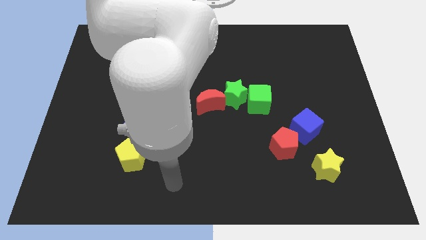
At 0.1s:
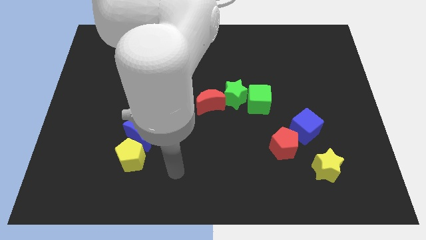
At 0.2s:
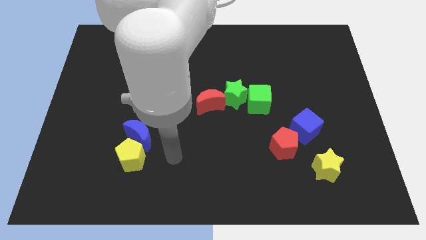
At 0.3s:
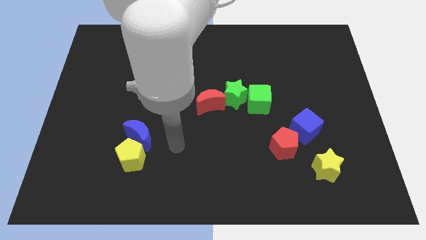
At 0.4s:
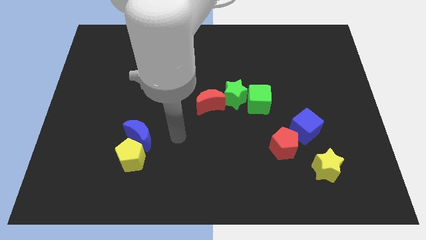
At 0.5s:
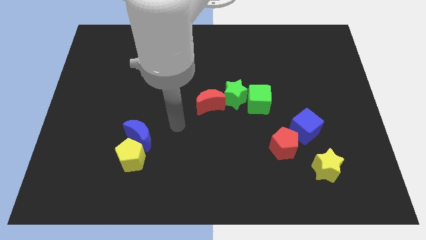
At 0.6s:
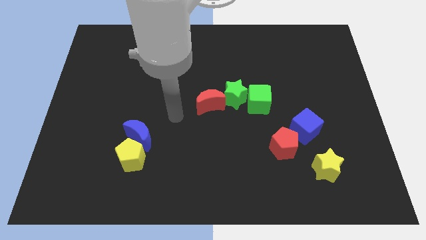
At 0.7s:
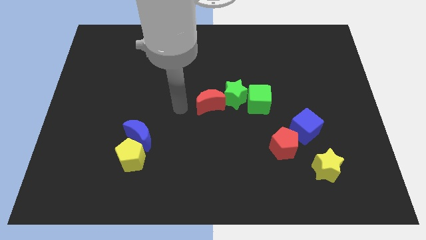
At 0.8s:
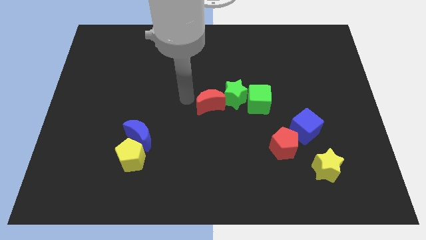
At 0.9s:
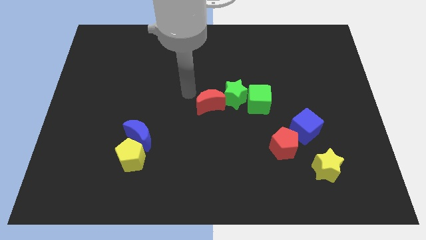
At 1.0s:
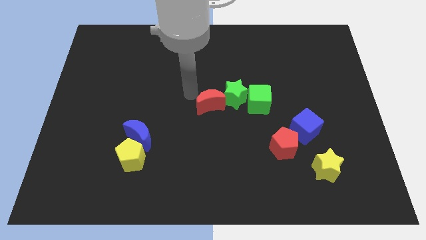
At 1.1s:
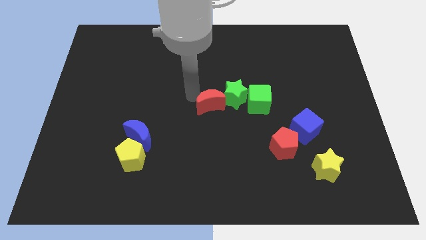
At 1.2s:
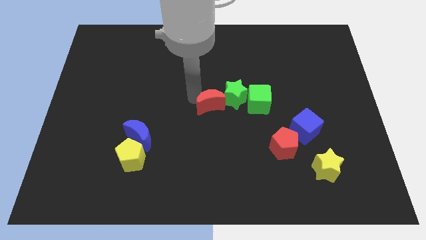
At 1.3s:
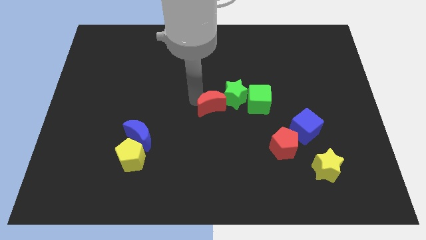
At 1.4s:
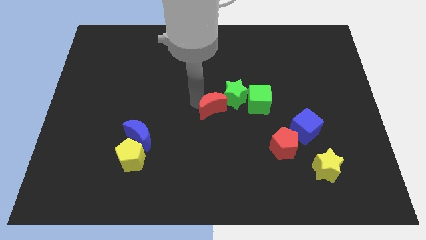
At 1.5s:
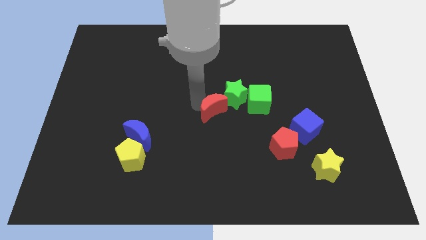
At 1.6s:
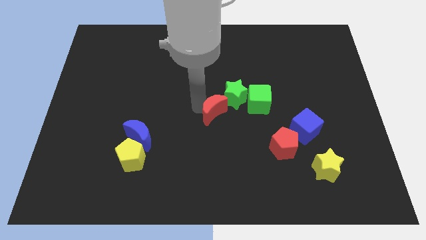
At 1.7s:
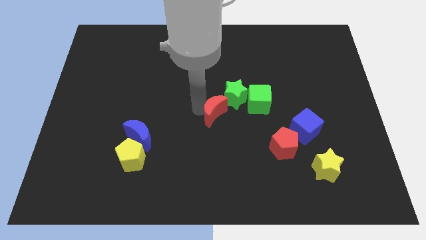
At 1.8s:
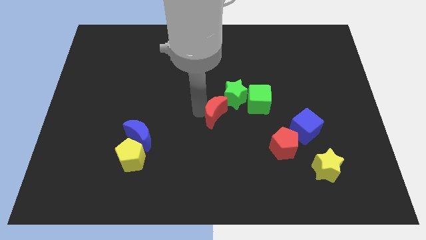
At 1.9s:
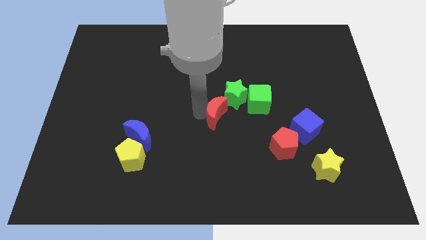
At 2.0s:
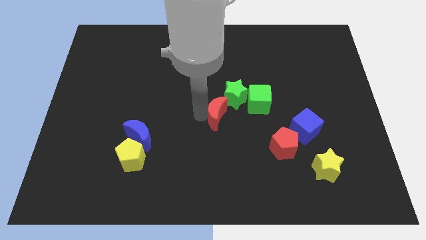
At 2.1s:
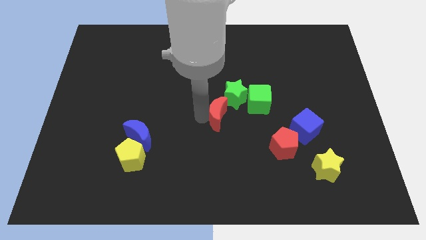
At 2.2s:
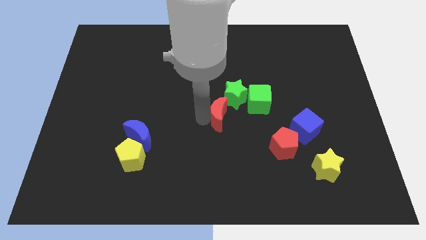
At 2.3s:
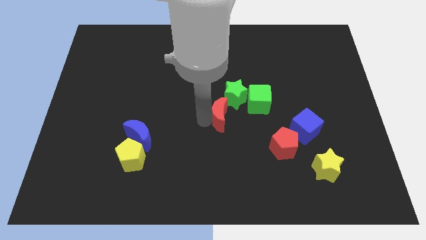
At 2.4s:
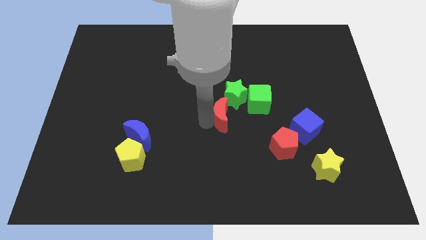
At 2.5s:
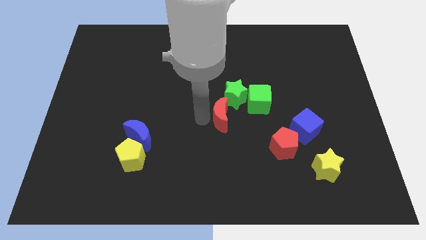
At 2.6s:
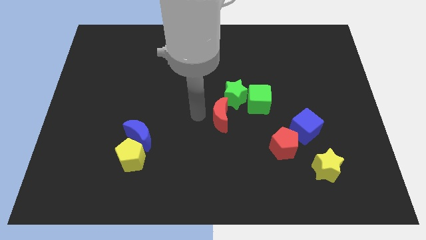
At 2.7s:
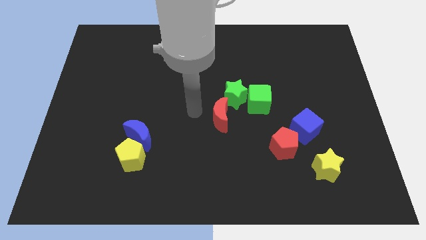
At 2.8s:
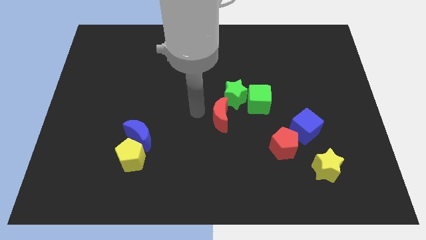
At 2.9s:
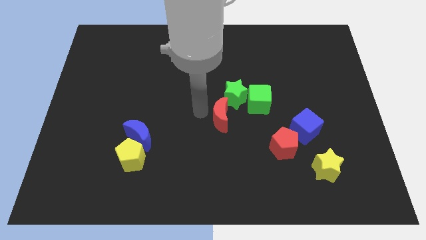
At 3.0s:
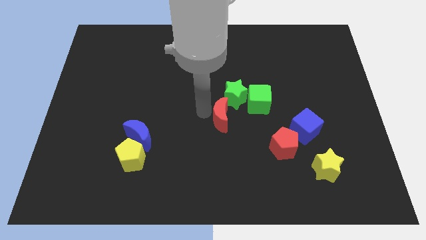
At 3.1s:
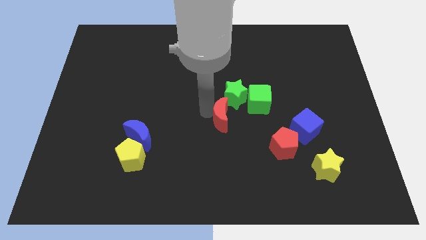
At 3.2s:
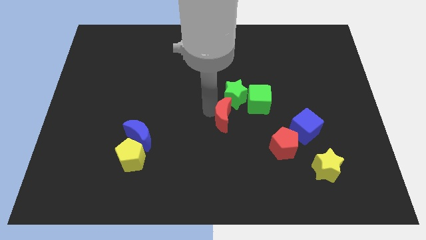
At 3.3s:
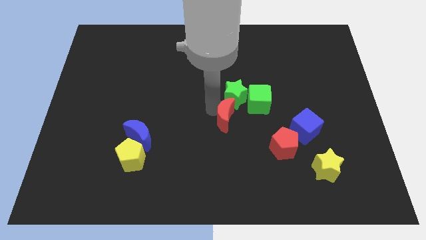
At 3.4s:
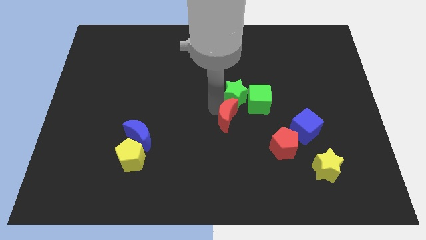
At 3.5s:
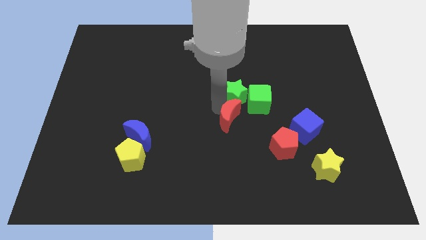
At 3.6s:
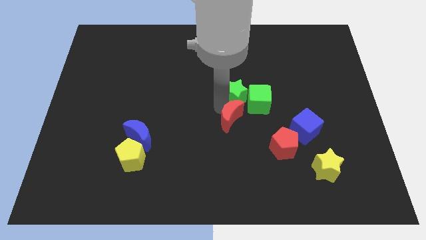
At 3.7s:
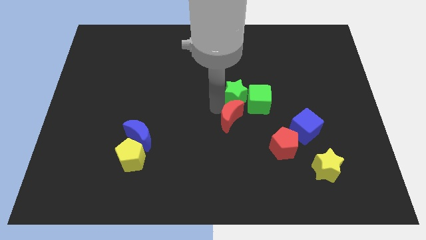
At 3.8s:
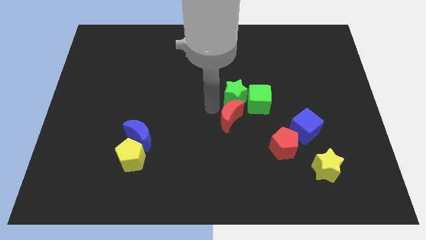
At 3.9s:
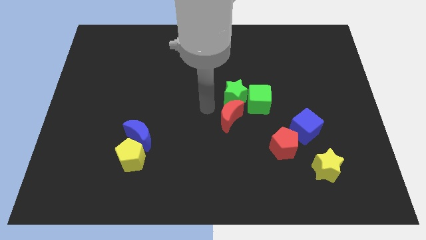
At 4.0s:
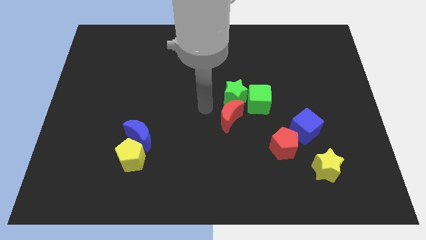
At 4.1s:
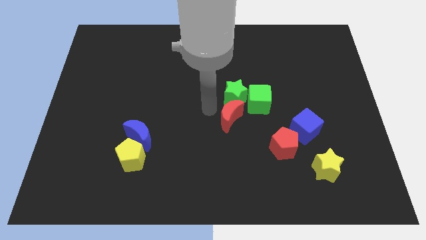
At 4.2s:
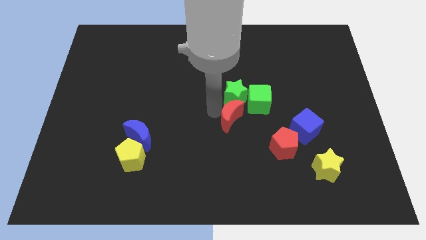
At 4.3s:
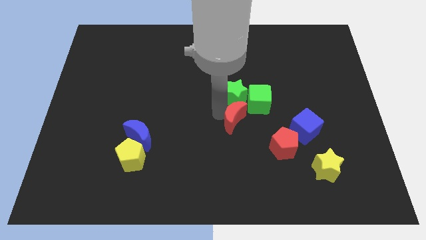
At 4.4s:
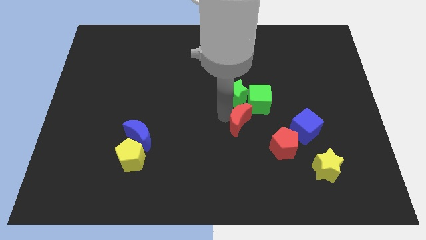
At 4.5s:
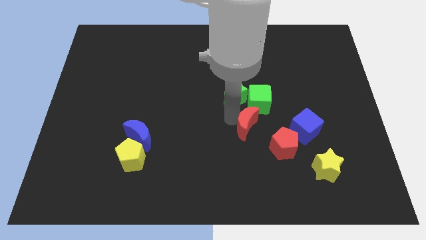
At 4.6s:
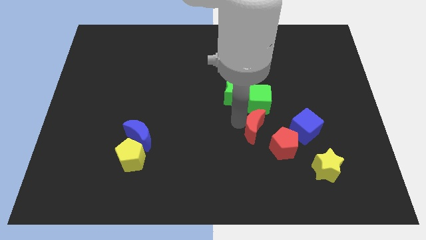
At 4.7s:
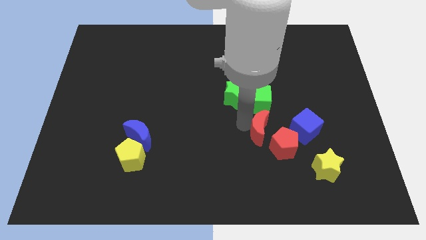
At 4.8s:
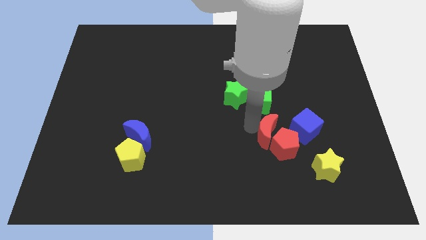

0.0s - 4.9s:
push the red moon next to the red pentagon

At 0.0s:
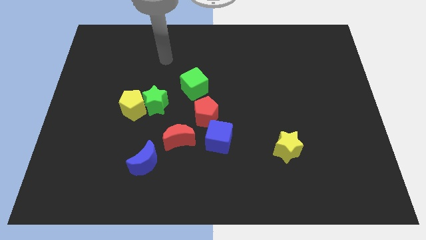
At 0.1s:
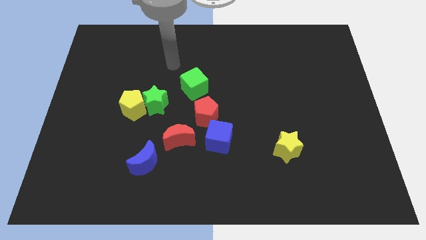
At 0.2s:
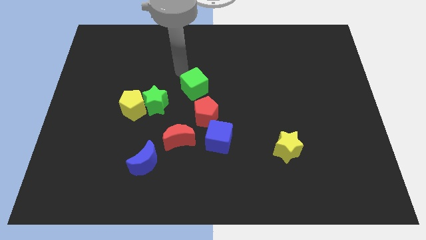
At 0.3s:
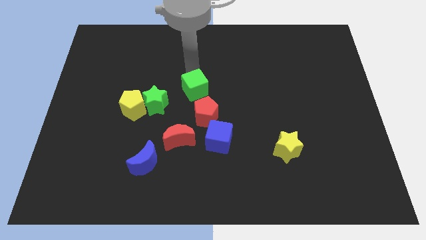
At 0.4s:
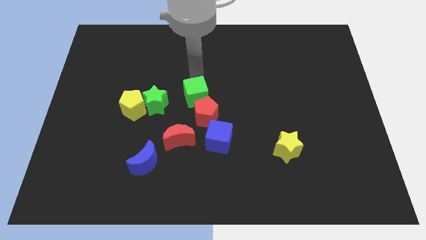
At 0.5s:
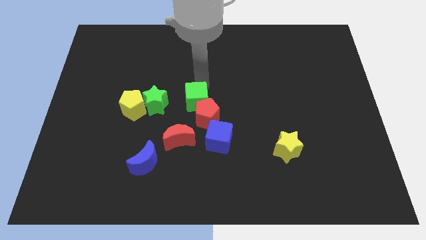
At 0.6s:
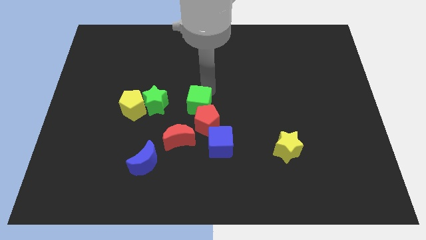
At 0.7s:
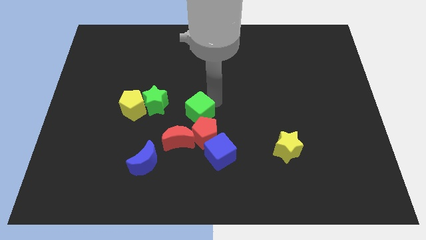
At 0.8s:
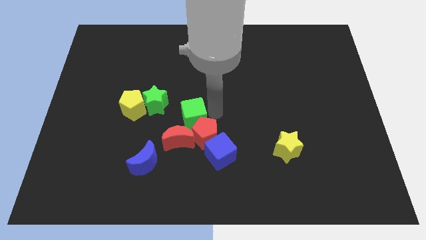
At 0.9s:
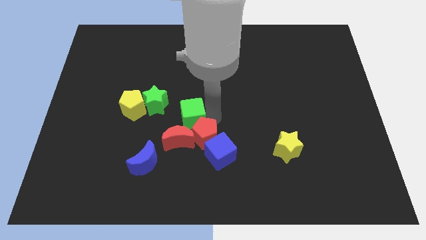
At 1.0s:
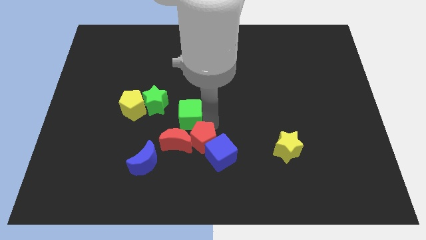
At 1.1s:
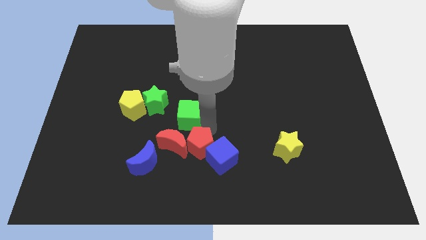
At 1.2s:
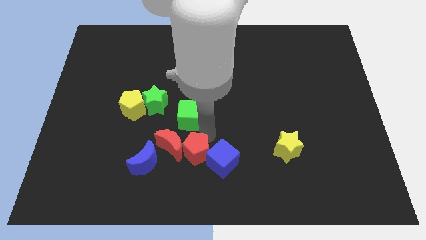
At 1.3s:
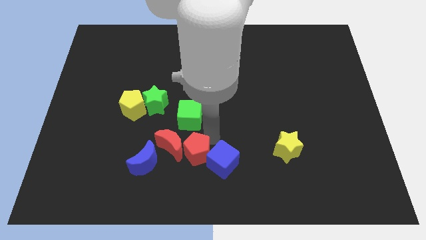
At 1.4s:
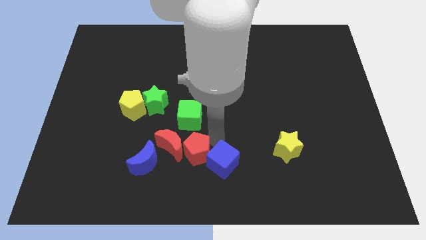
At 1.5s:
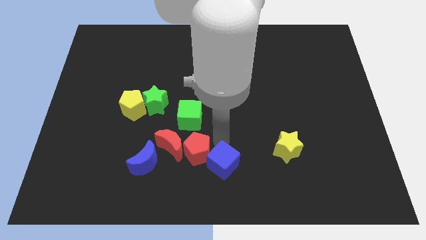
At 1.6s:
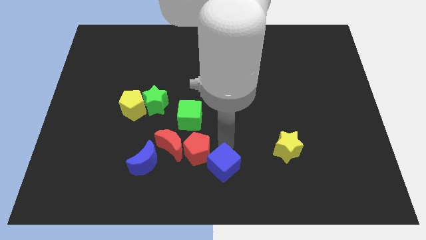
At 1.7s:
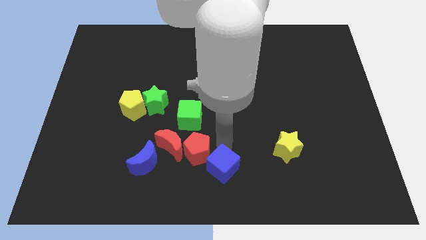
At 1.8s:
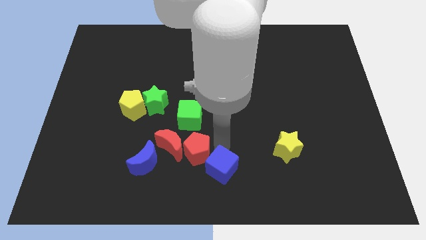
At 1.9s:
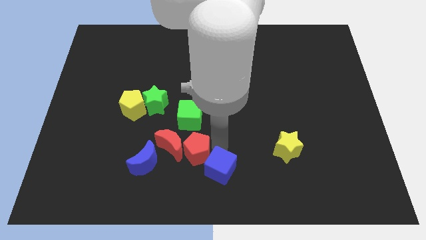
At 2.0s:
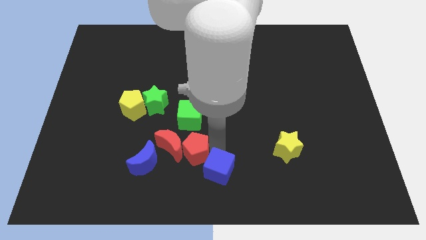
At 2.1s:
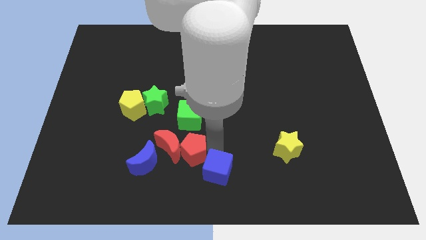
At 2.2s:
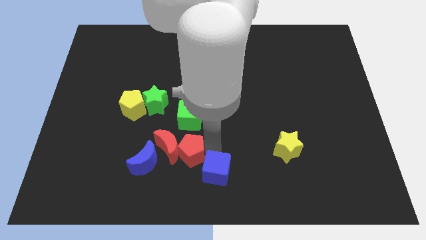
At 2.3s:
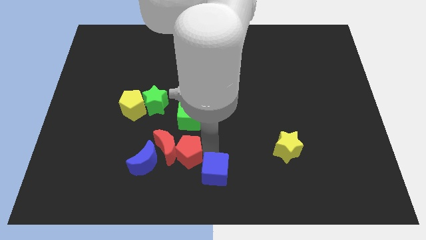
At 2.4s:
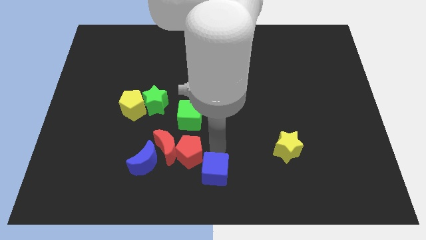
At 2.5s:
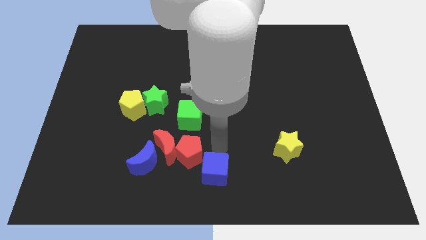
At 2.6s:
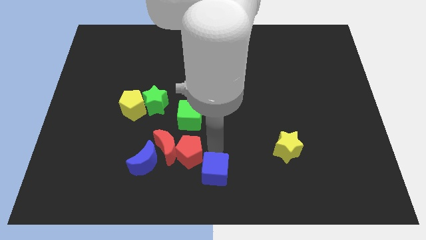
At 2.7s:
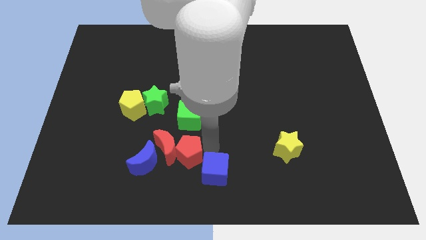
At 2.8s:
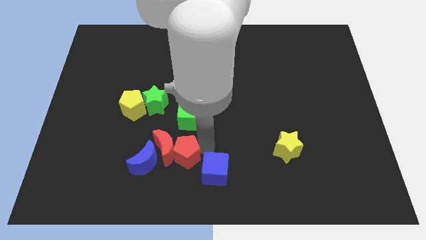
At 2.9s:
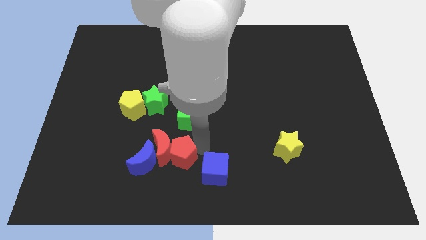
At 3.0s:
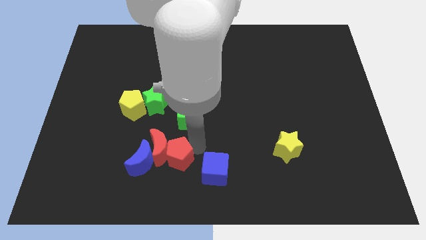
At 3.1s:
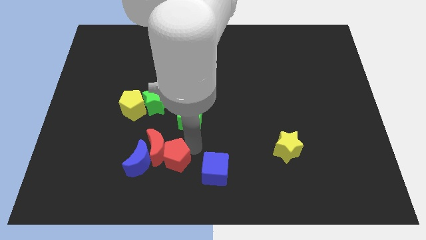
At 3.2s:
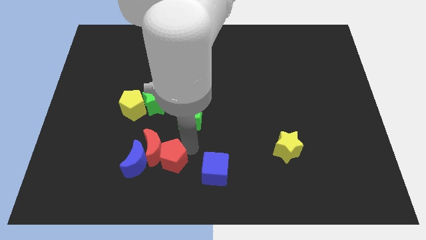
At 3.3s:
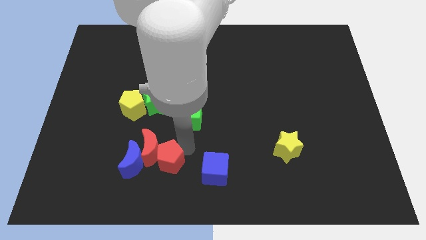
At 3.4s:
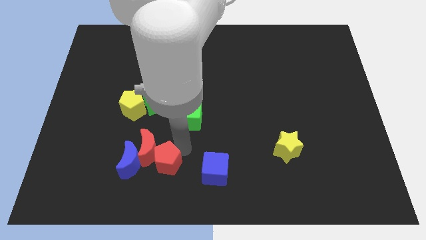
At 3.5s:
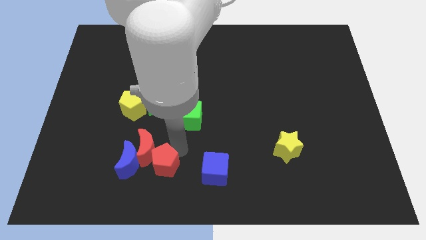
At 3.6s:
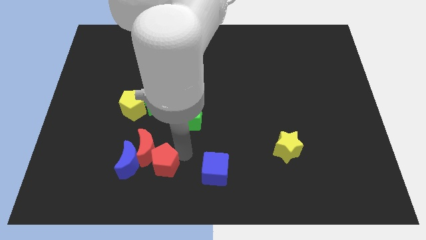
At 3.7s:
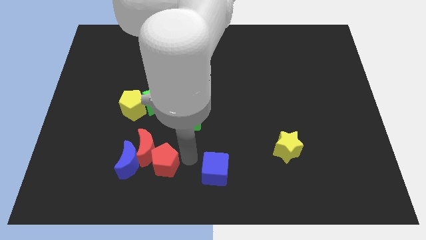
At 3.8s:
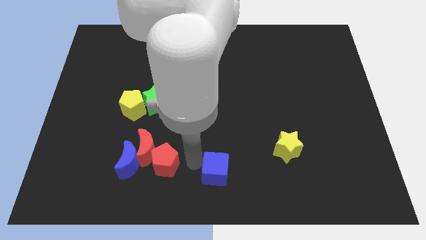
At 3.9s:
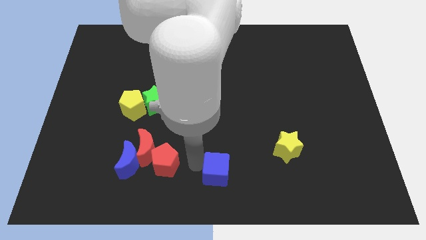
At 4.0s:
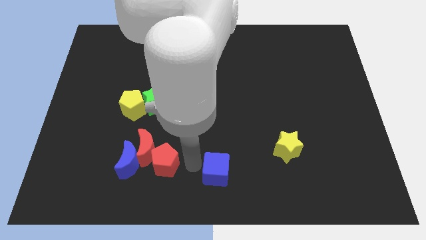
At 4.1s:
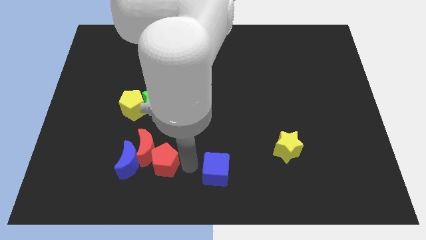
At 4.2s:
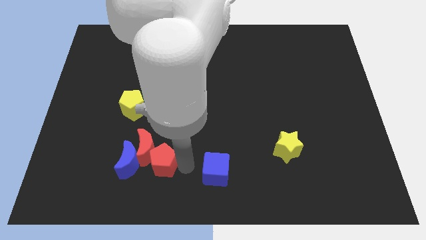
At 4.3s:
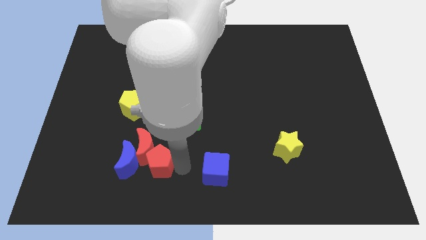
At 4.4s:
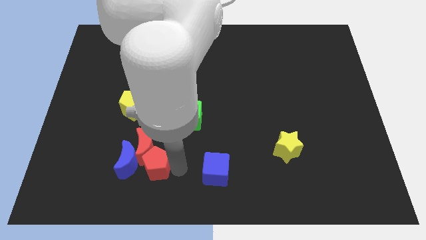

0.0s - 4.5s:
put the red pentagon close to the blue moon
